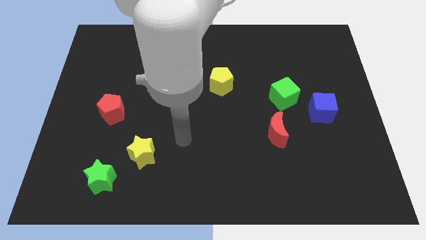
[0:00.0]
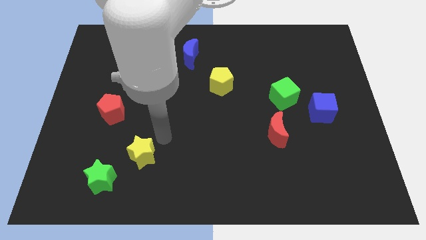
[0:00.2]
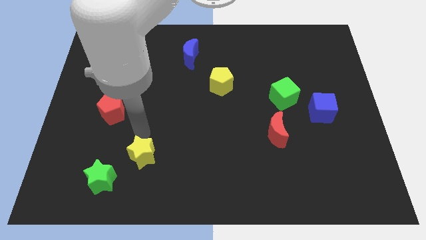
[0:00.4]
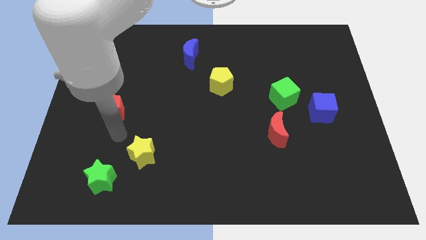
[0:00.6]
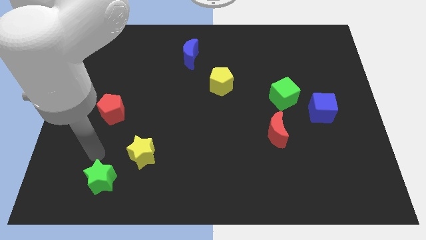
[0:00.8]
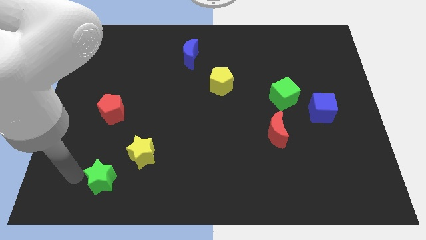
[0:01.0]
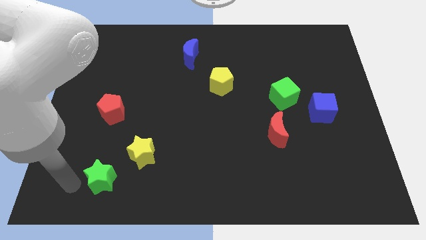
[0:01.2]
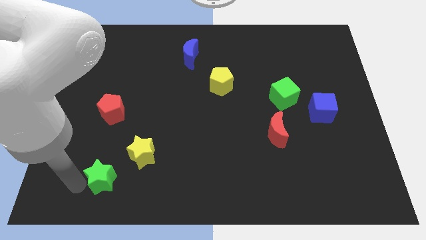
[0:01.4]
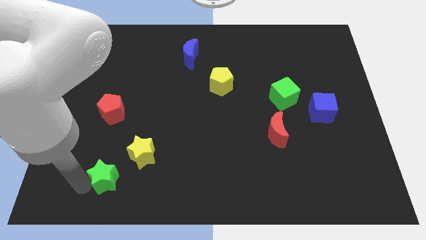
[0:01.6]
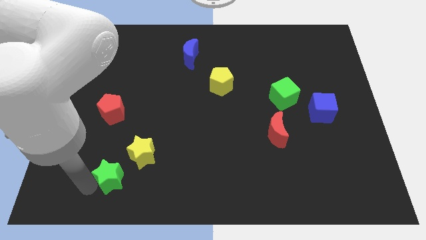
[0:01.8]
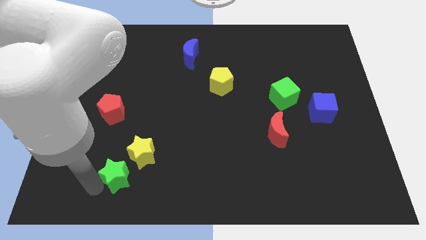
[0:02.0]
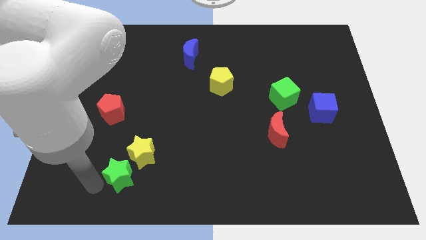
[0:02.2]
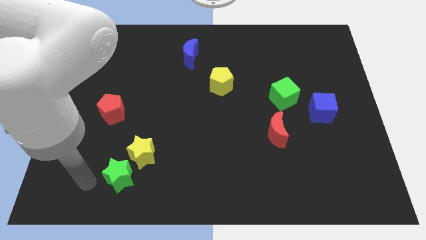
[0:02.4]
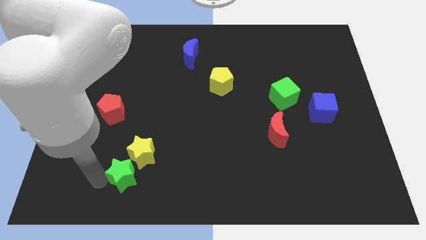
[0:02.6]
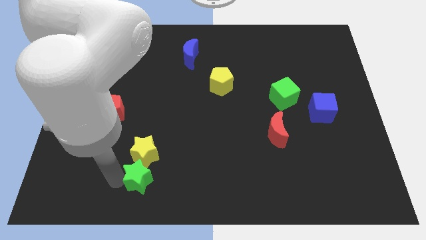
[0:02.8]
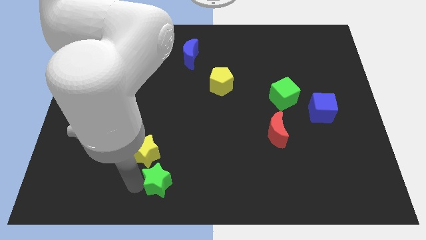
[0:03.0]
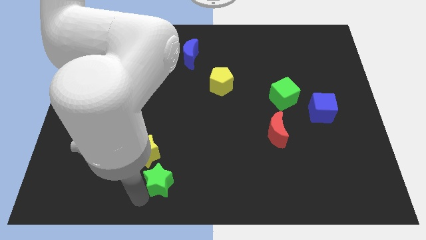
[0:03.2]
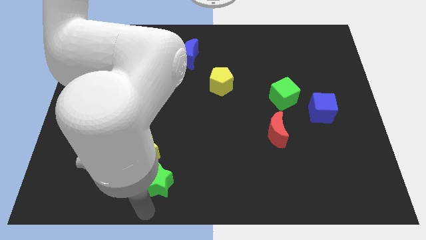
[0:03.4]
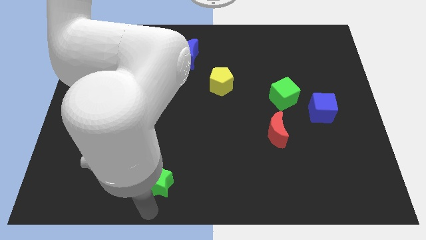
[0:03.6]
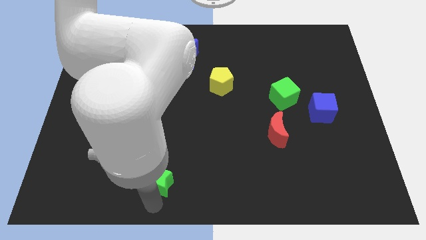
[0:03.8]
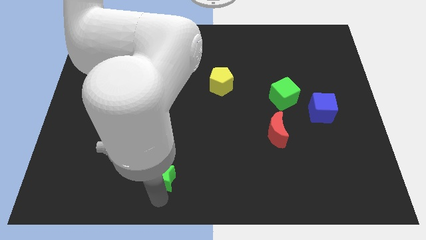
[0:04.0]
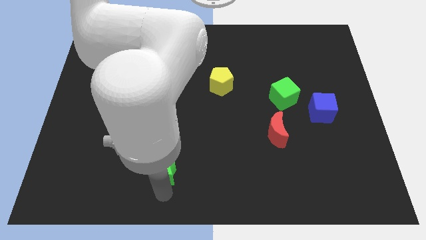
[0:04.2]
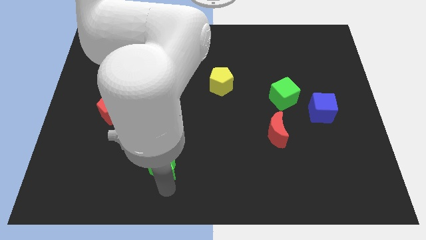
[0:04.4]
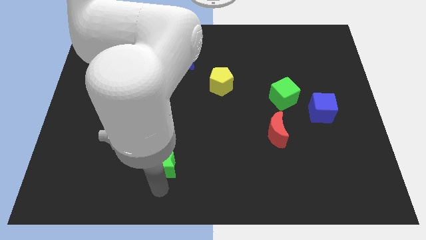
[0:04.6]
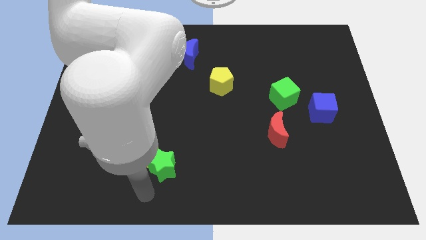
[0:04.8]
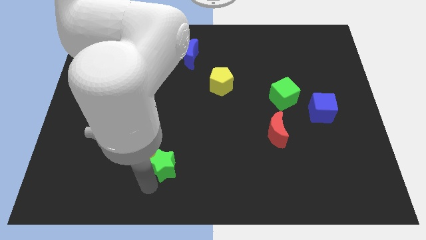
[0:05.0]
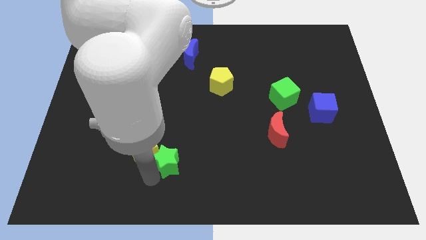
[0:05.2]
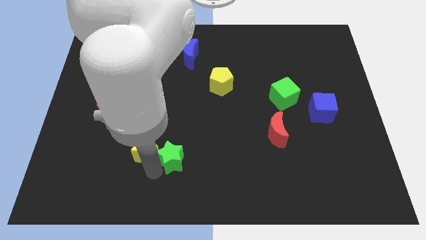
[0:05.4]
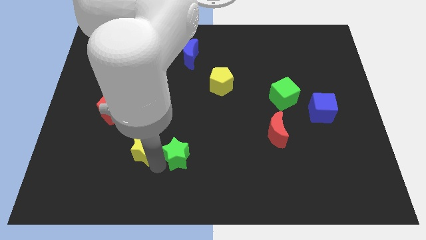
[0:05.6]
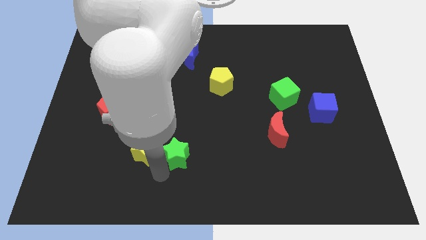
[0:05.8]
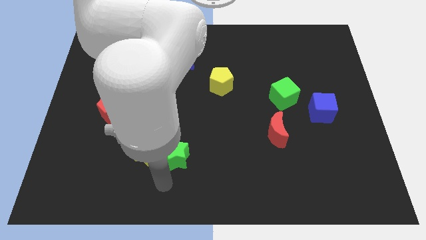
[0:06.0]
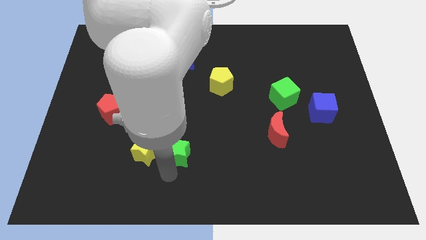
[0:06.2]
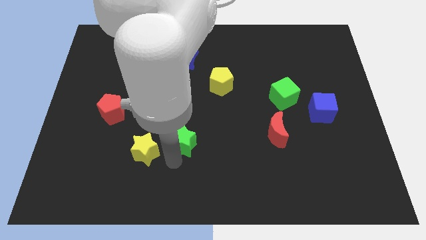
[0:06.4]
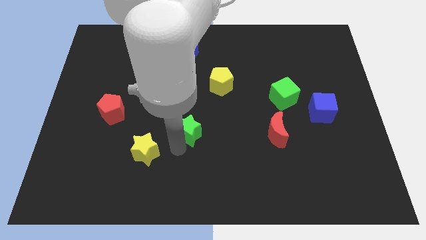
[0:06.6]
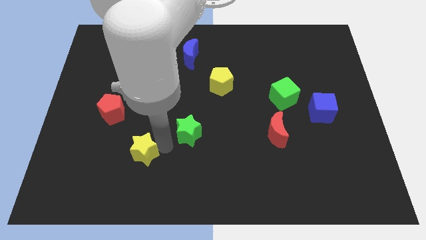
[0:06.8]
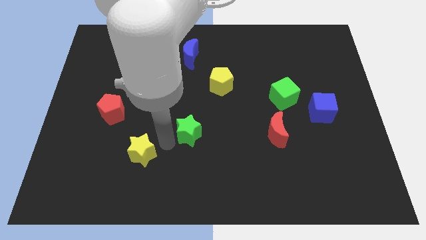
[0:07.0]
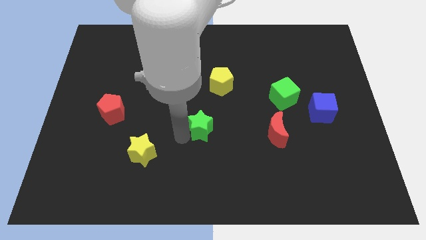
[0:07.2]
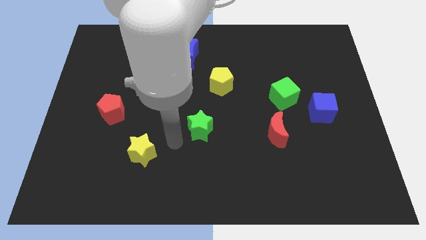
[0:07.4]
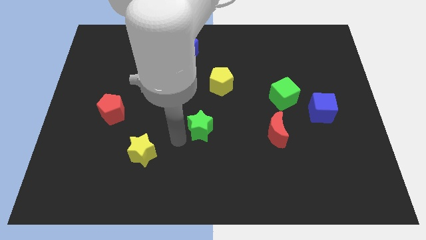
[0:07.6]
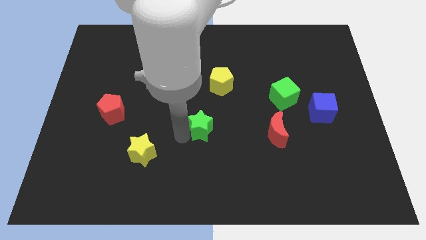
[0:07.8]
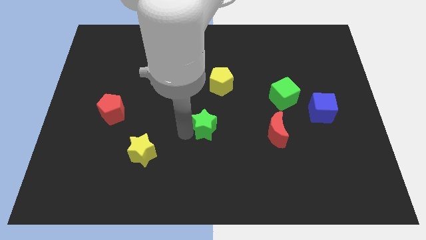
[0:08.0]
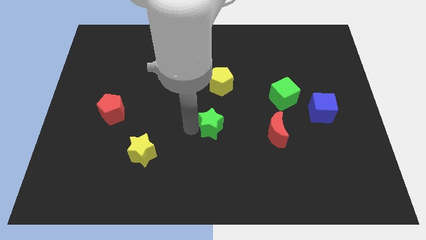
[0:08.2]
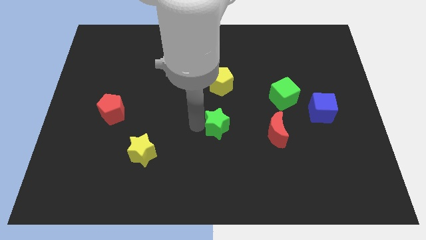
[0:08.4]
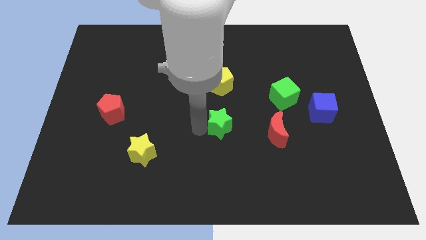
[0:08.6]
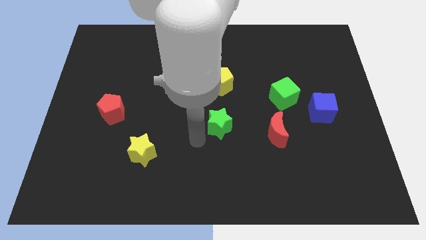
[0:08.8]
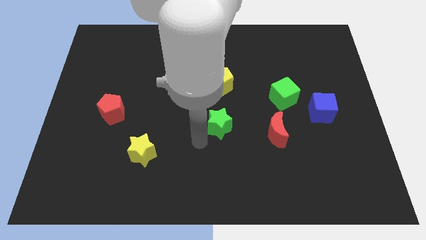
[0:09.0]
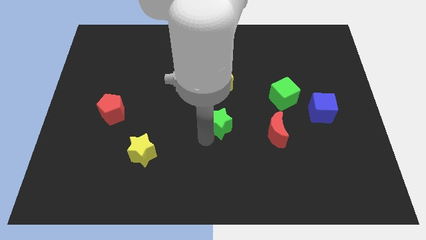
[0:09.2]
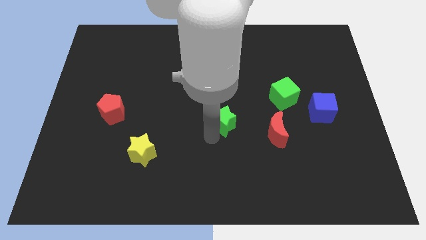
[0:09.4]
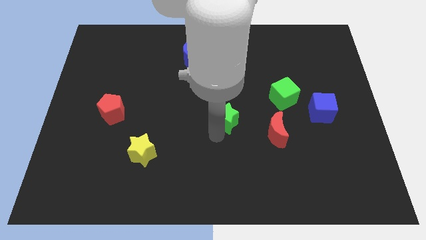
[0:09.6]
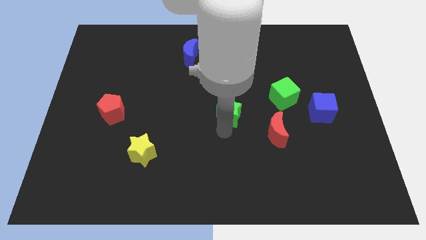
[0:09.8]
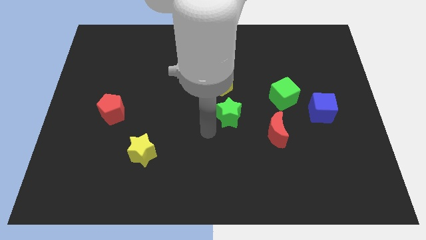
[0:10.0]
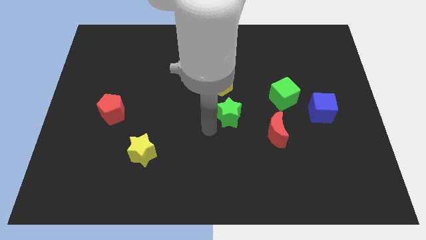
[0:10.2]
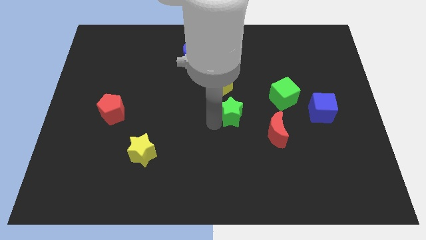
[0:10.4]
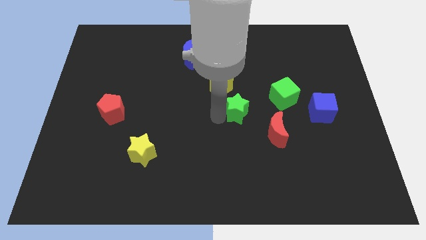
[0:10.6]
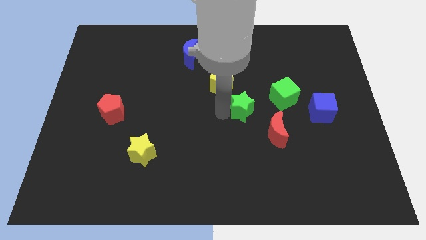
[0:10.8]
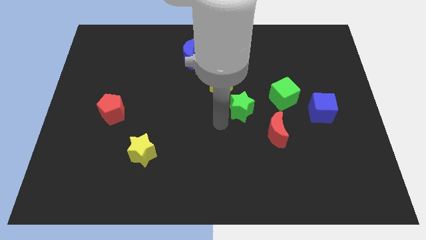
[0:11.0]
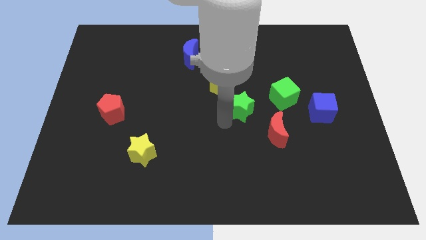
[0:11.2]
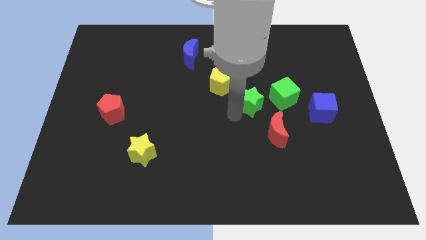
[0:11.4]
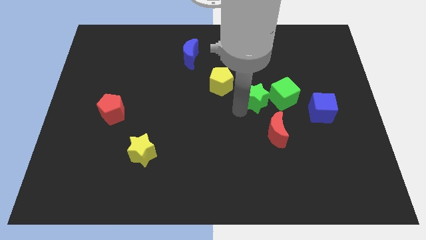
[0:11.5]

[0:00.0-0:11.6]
push the green star to the top side of the red moon
